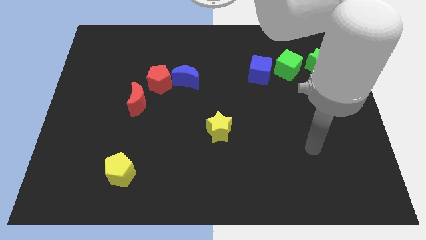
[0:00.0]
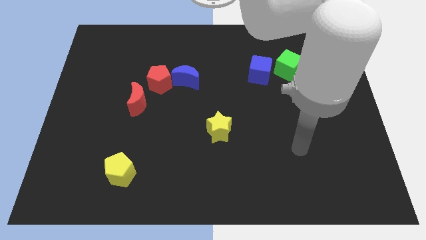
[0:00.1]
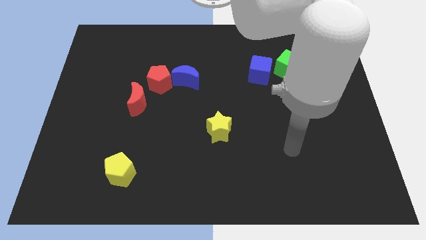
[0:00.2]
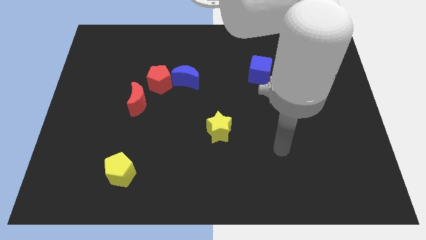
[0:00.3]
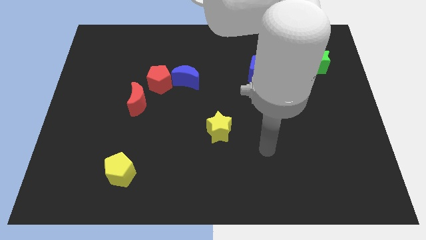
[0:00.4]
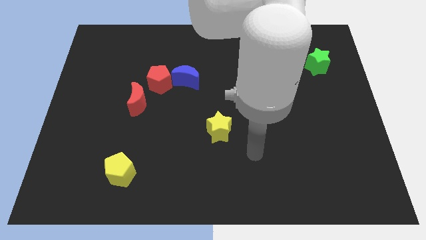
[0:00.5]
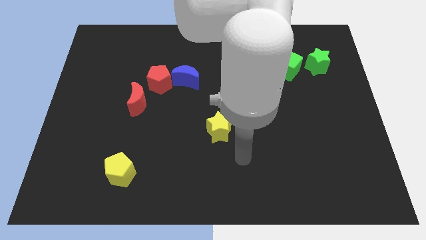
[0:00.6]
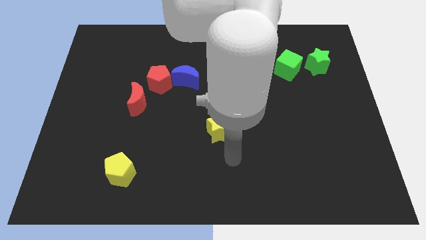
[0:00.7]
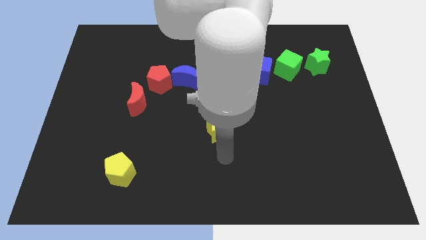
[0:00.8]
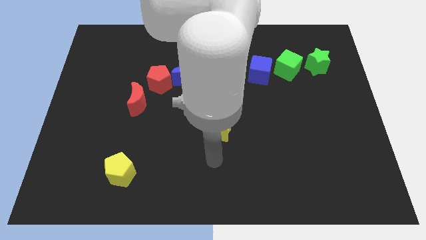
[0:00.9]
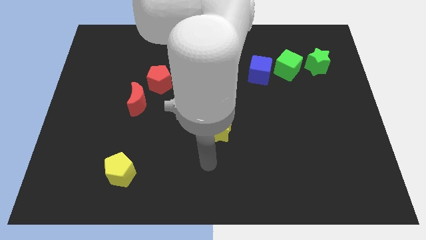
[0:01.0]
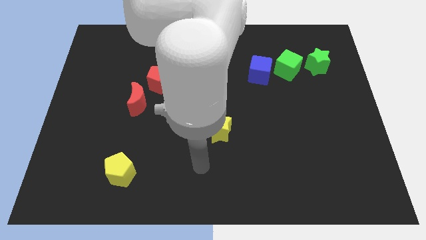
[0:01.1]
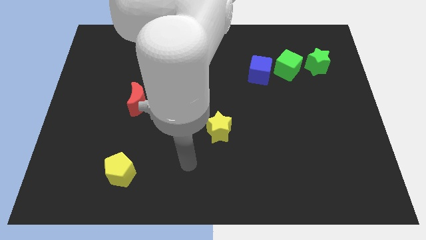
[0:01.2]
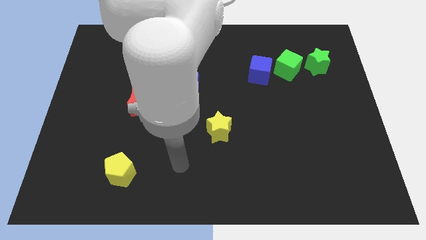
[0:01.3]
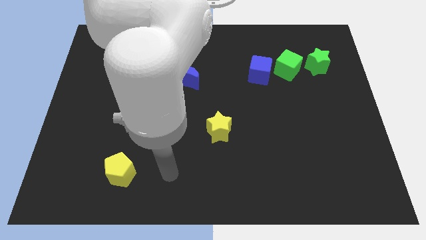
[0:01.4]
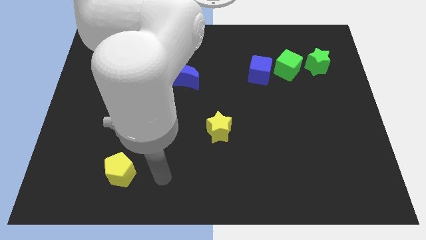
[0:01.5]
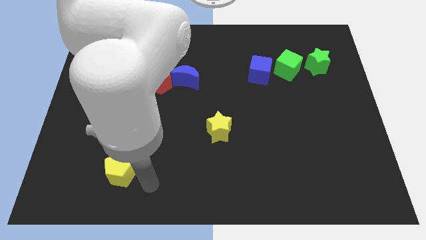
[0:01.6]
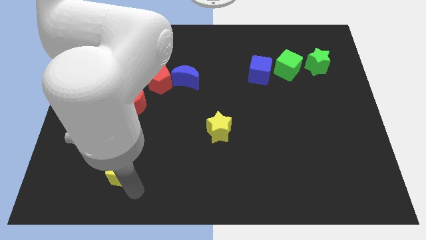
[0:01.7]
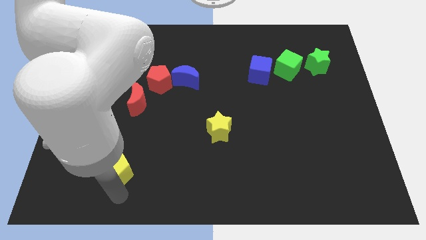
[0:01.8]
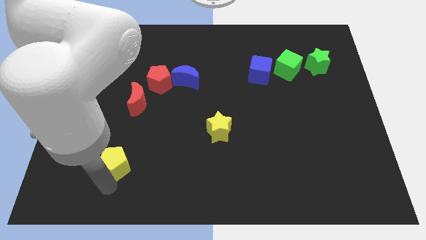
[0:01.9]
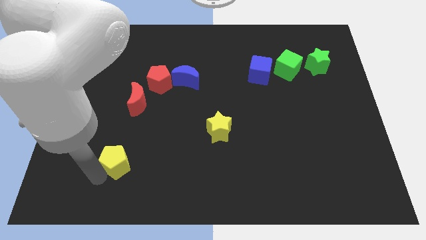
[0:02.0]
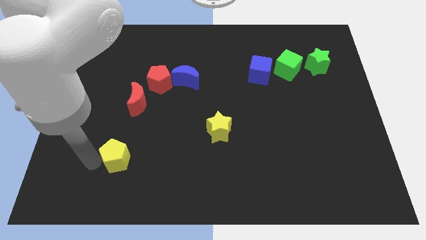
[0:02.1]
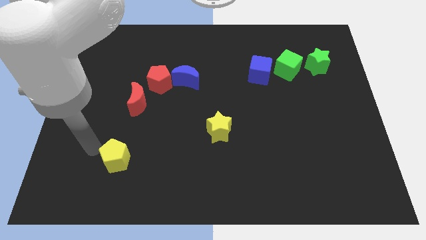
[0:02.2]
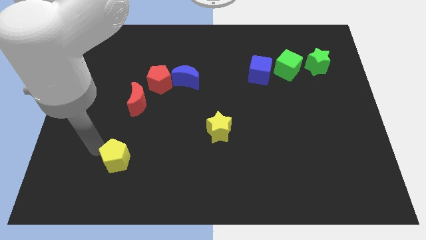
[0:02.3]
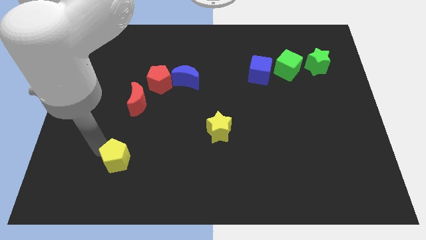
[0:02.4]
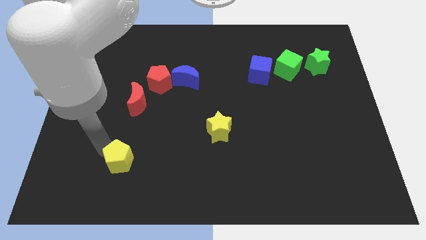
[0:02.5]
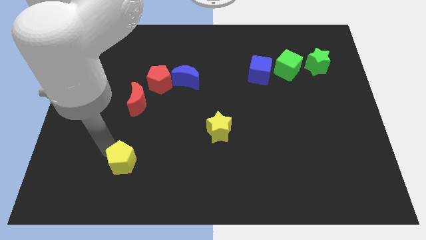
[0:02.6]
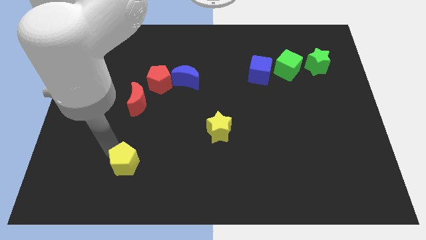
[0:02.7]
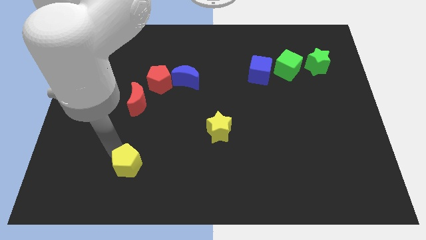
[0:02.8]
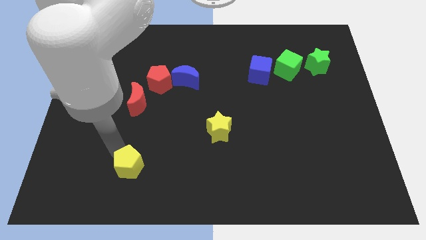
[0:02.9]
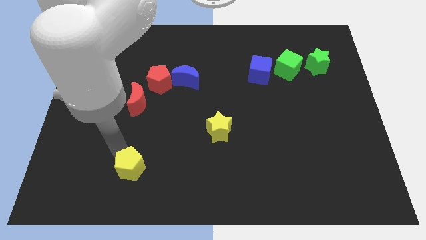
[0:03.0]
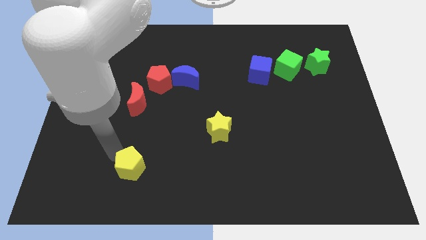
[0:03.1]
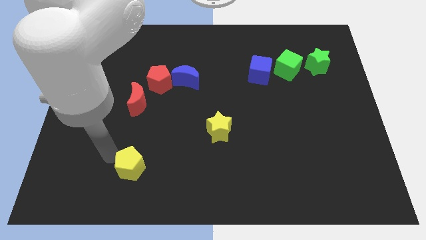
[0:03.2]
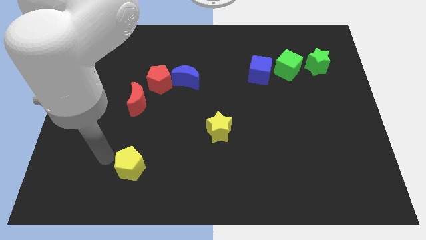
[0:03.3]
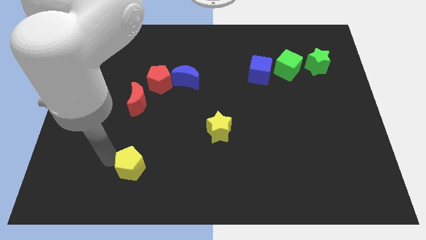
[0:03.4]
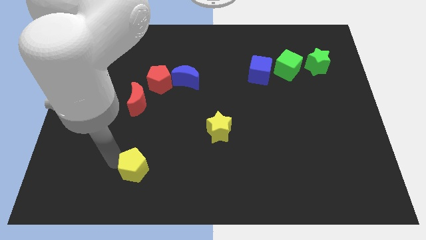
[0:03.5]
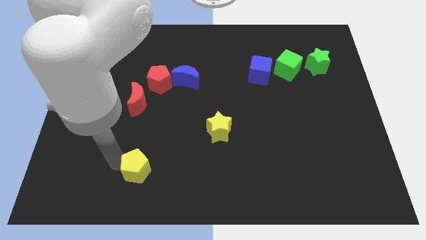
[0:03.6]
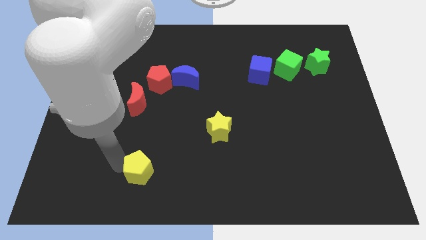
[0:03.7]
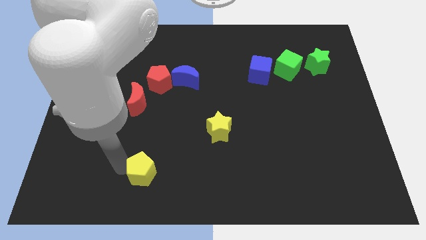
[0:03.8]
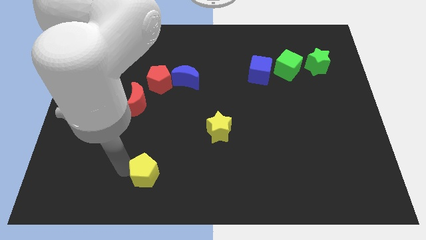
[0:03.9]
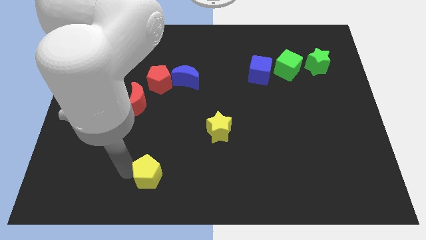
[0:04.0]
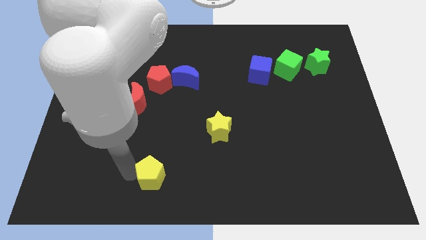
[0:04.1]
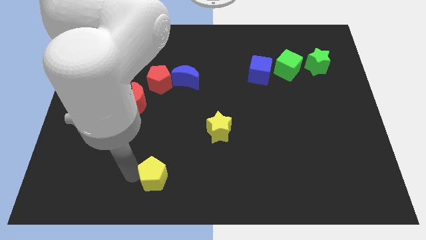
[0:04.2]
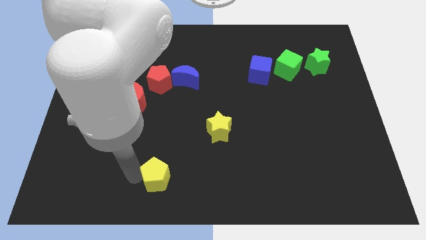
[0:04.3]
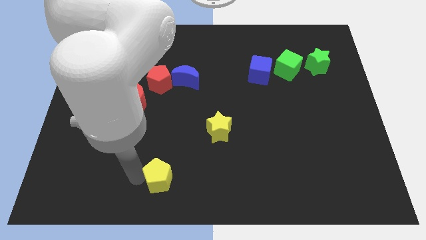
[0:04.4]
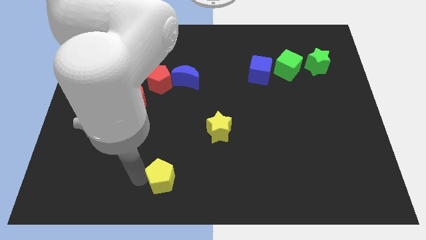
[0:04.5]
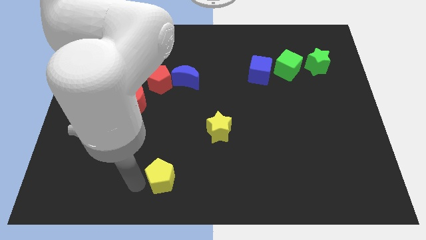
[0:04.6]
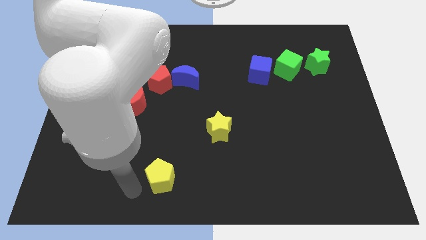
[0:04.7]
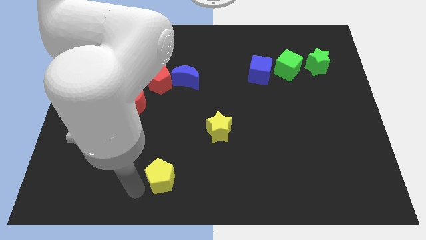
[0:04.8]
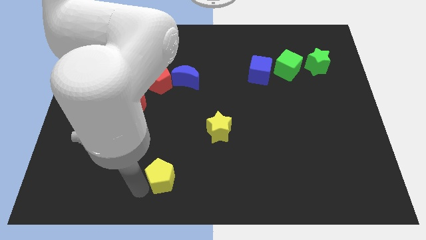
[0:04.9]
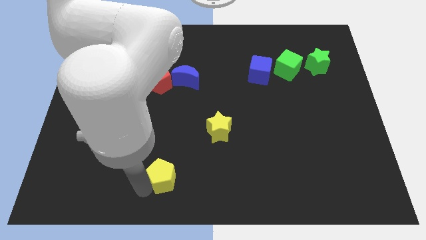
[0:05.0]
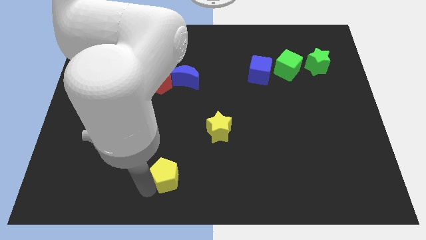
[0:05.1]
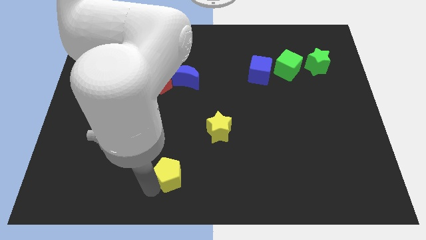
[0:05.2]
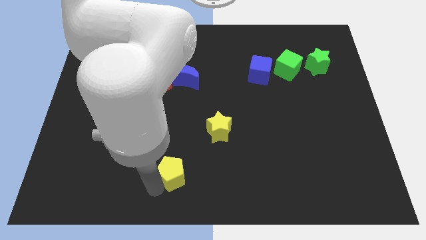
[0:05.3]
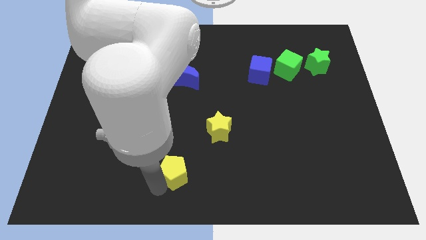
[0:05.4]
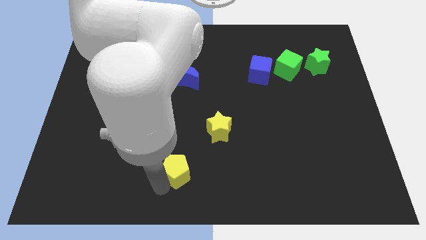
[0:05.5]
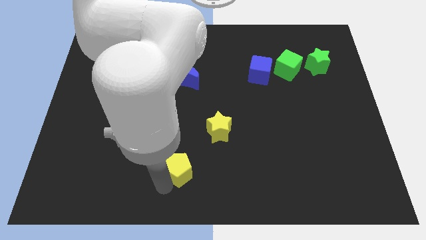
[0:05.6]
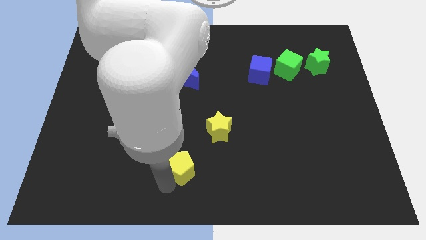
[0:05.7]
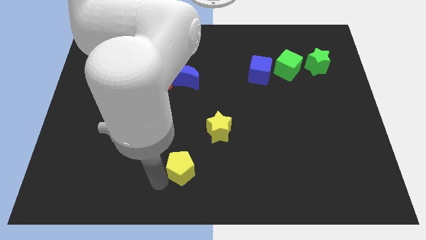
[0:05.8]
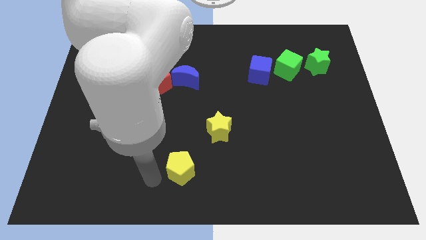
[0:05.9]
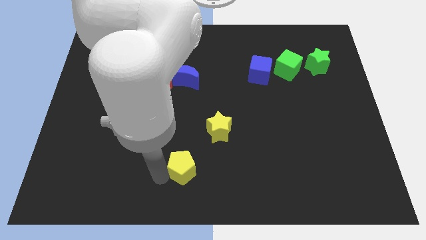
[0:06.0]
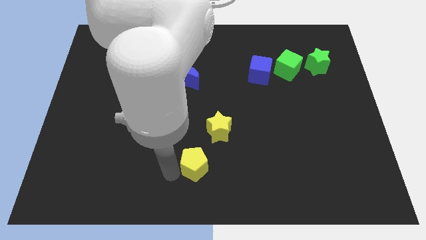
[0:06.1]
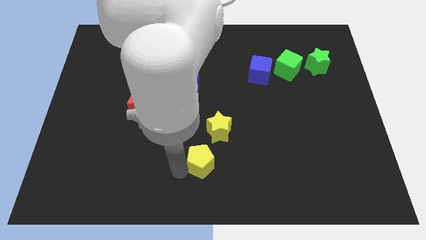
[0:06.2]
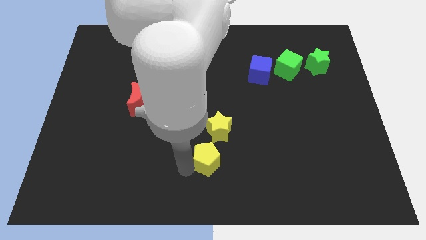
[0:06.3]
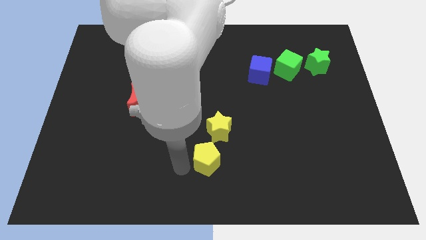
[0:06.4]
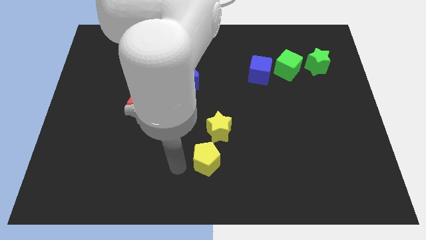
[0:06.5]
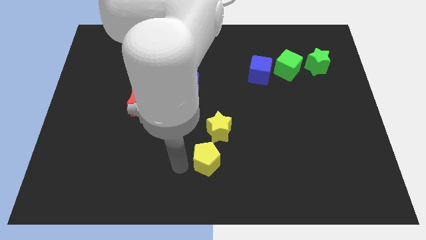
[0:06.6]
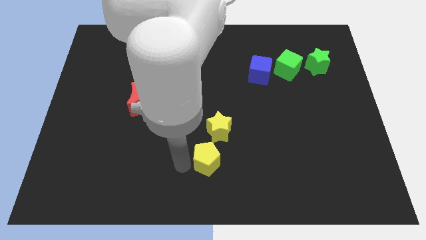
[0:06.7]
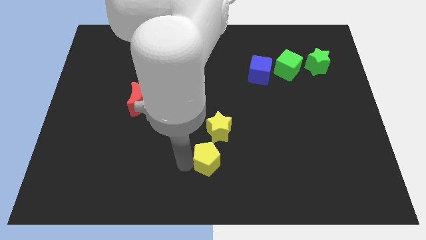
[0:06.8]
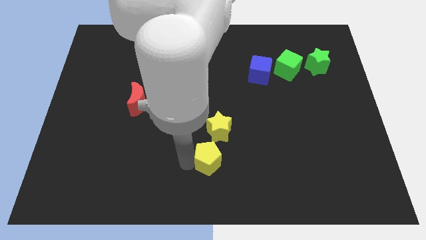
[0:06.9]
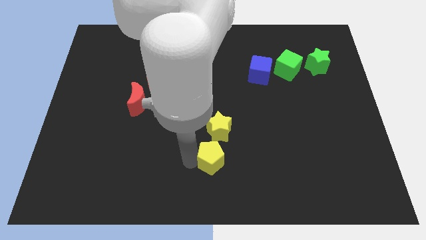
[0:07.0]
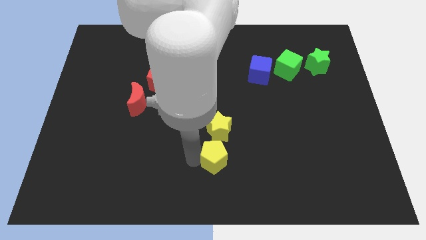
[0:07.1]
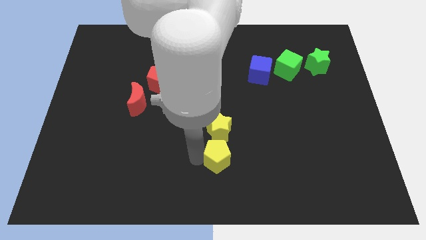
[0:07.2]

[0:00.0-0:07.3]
push the yellow pentagon to the bottom right of the yellow star
